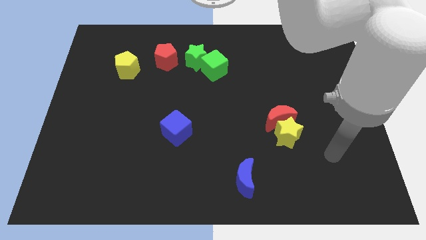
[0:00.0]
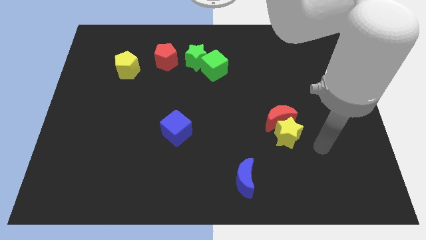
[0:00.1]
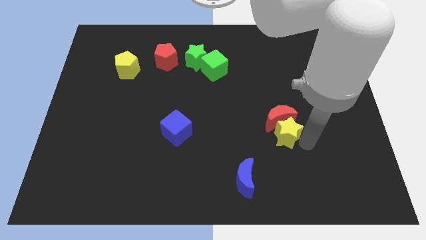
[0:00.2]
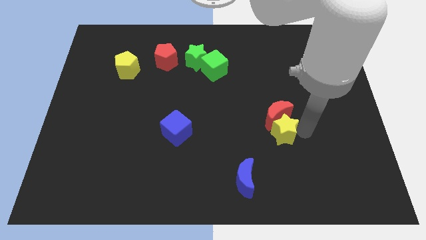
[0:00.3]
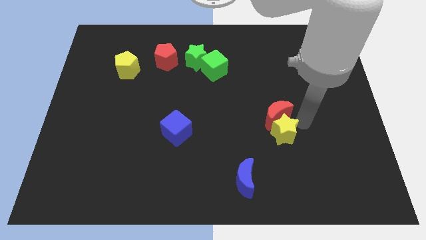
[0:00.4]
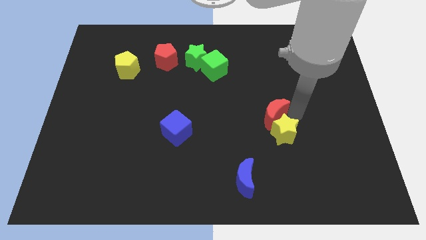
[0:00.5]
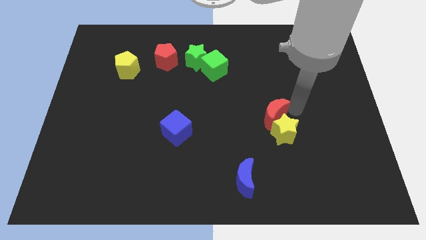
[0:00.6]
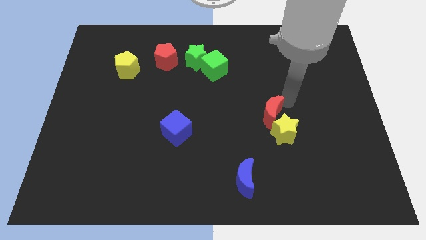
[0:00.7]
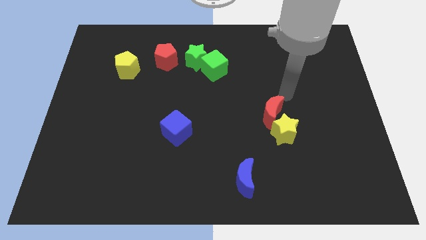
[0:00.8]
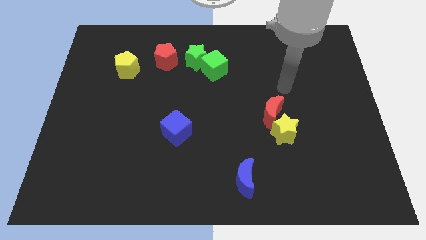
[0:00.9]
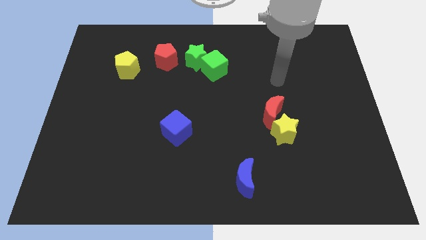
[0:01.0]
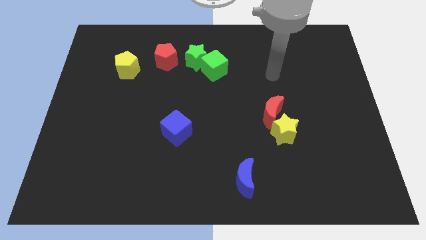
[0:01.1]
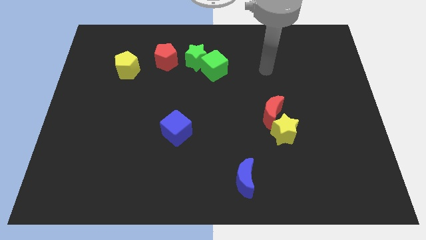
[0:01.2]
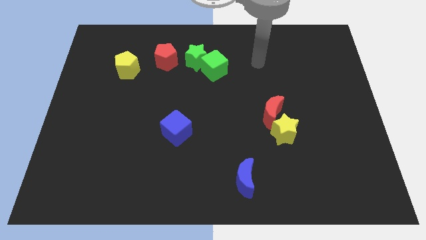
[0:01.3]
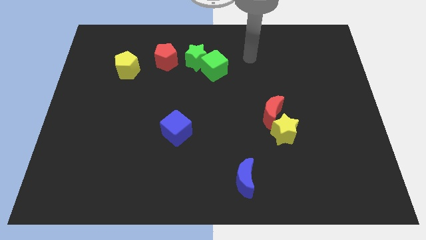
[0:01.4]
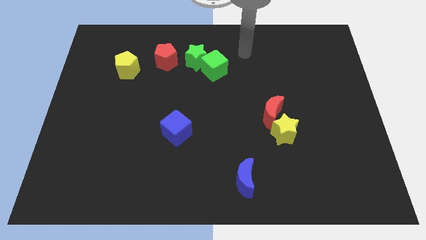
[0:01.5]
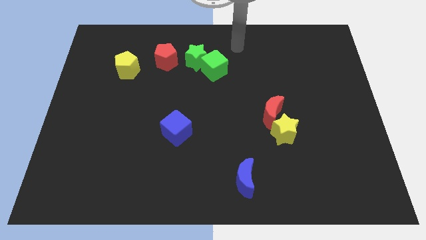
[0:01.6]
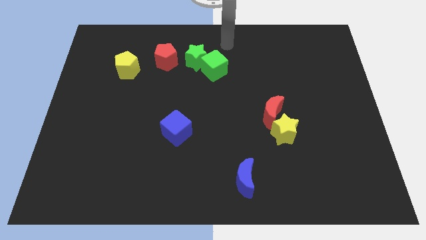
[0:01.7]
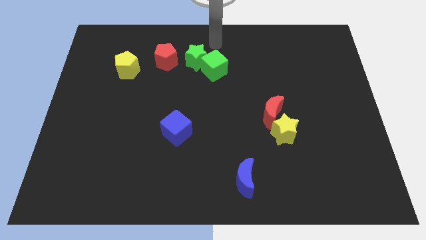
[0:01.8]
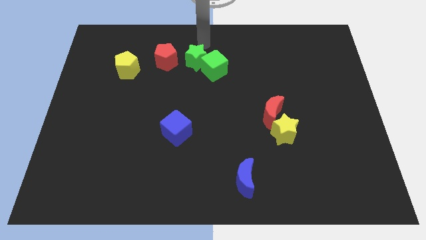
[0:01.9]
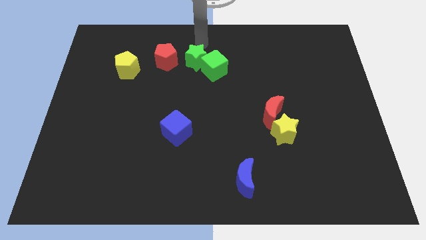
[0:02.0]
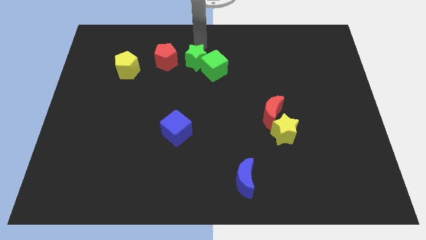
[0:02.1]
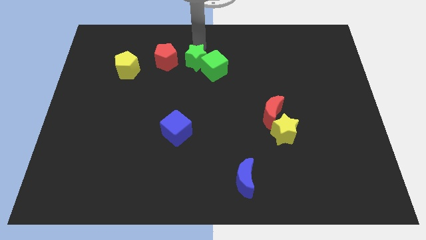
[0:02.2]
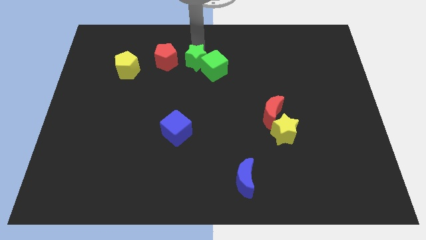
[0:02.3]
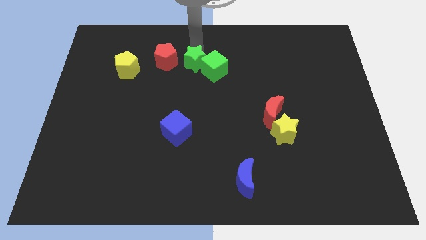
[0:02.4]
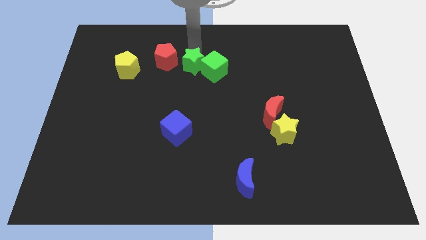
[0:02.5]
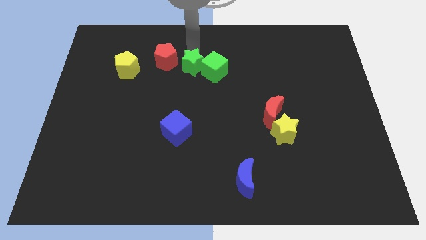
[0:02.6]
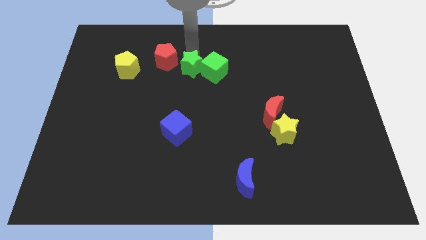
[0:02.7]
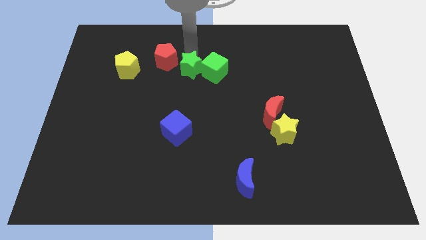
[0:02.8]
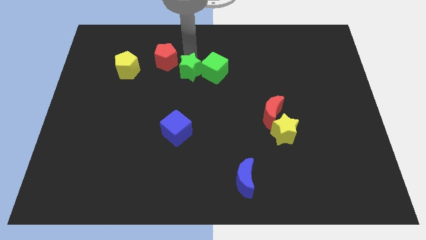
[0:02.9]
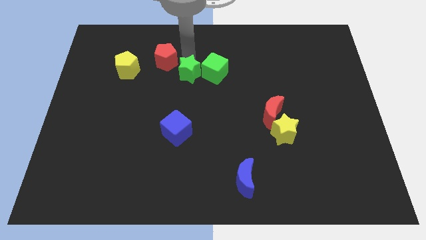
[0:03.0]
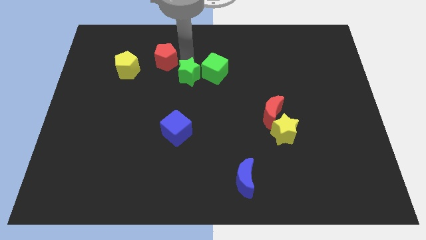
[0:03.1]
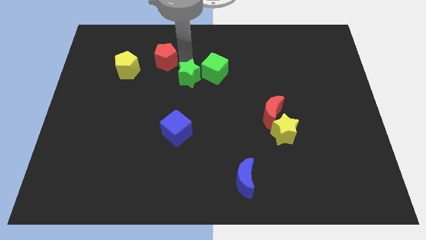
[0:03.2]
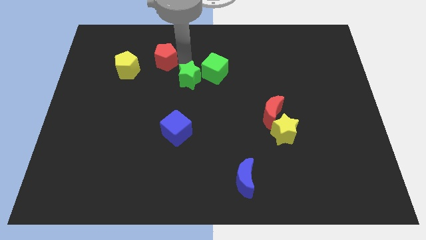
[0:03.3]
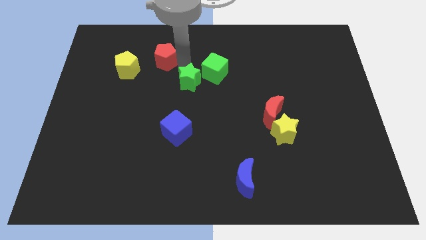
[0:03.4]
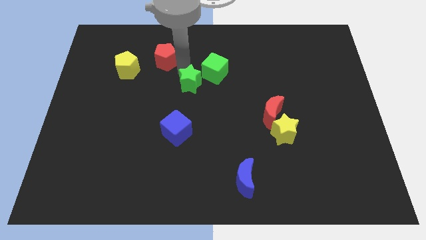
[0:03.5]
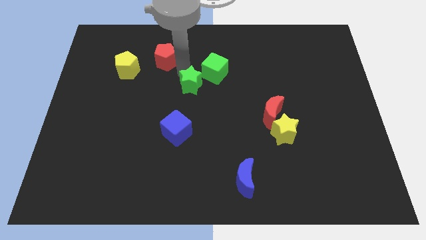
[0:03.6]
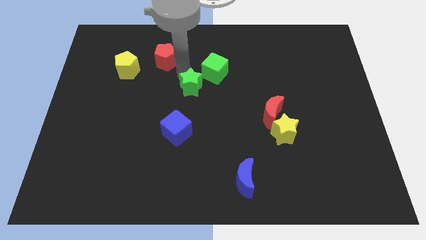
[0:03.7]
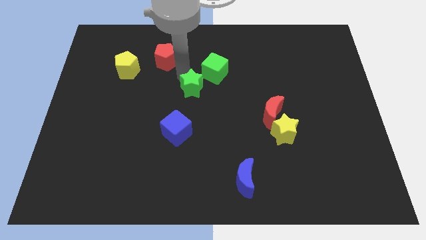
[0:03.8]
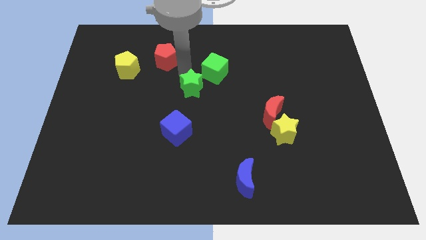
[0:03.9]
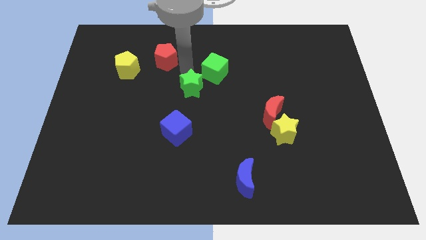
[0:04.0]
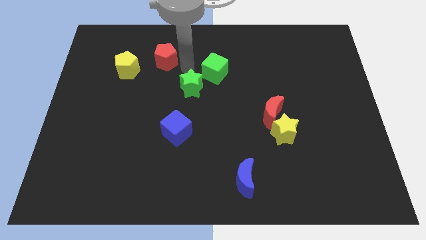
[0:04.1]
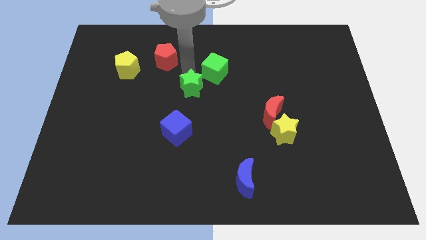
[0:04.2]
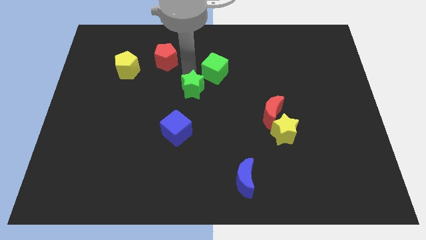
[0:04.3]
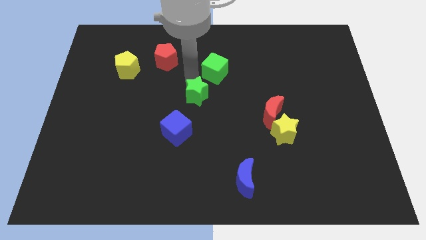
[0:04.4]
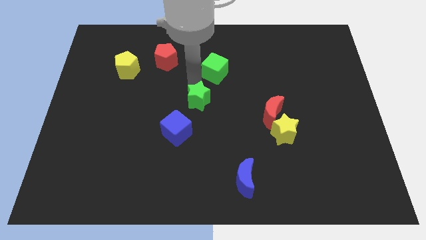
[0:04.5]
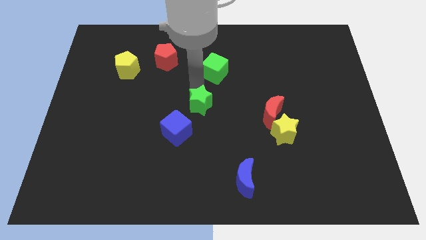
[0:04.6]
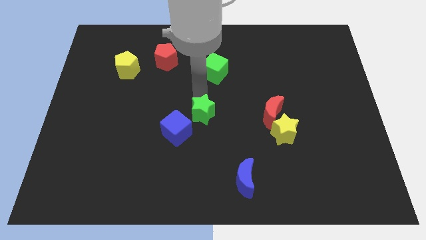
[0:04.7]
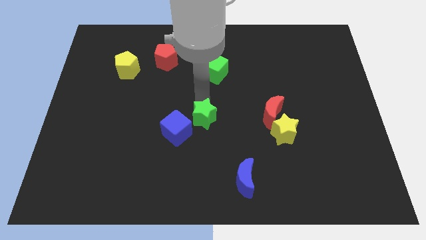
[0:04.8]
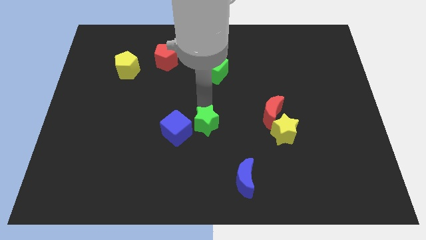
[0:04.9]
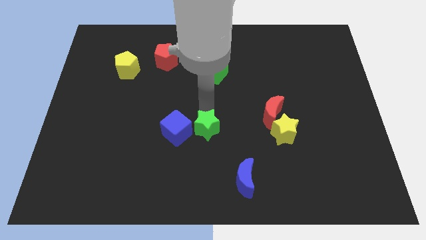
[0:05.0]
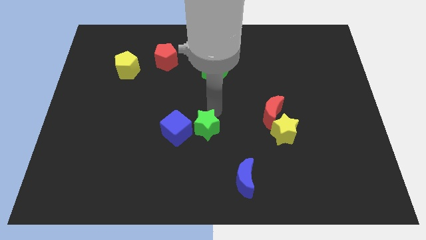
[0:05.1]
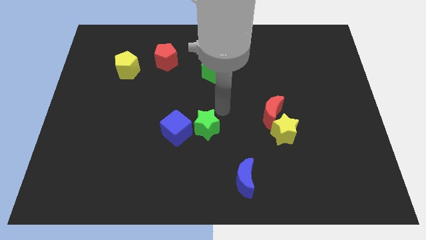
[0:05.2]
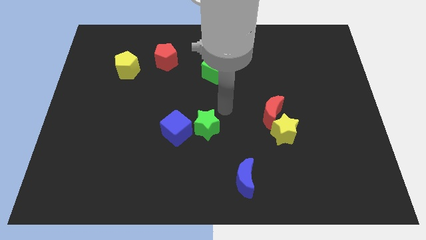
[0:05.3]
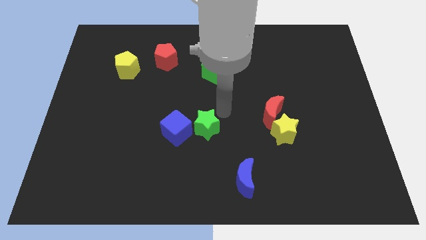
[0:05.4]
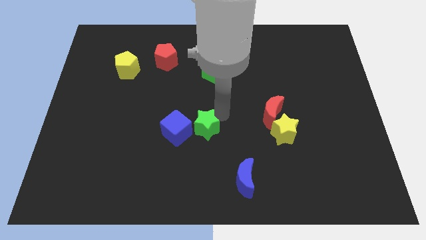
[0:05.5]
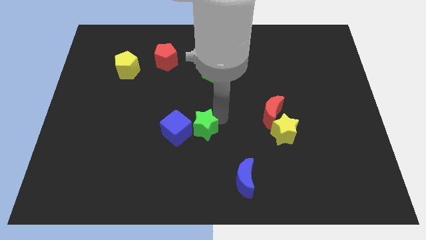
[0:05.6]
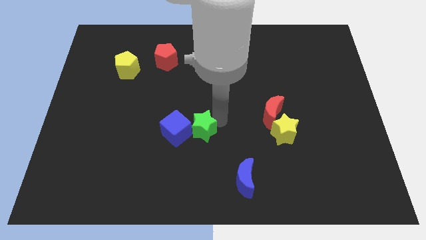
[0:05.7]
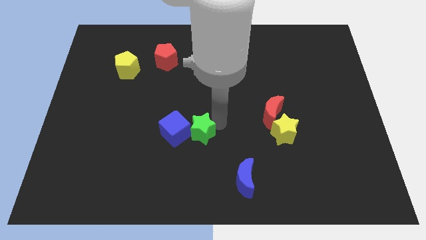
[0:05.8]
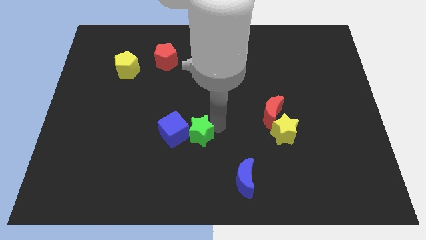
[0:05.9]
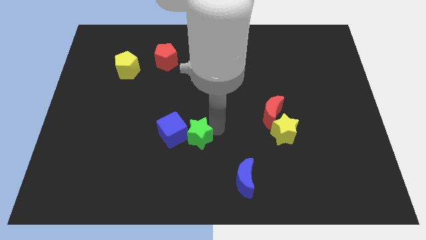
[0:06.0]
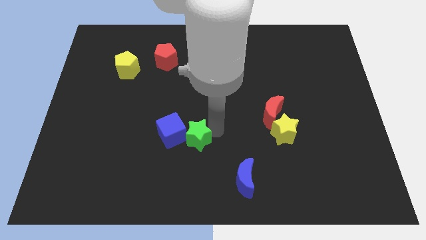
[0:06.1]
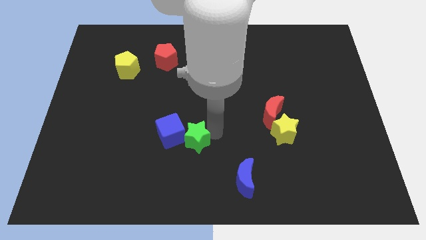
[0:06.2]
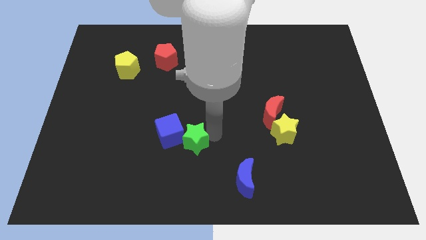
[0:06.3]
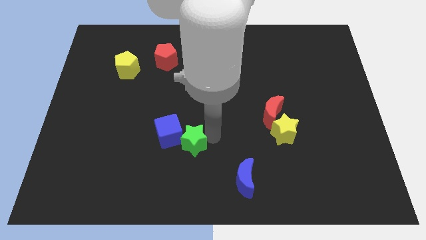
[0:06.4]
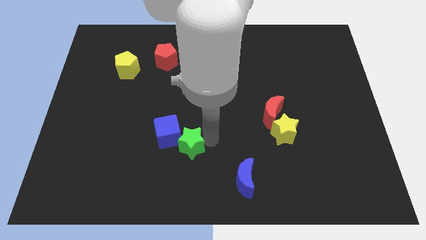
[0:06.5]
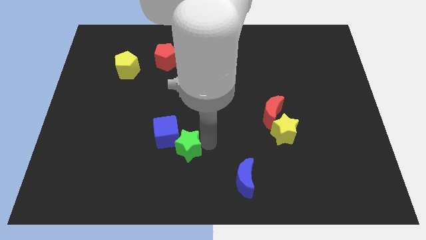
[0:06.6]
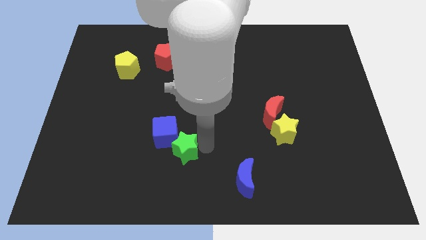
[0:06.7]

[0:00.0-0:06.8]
move the green star below the blue cube
